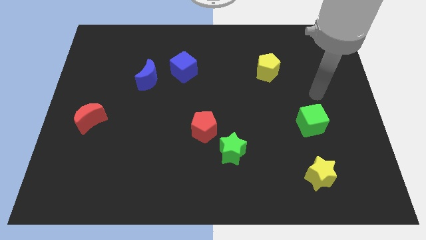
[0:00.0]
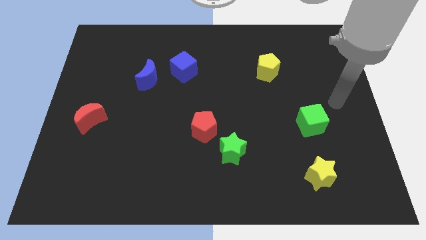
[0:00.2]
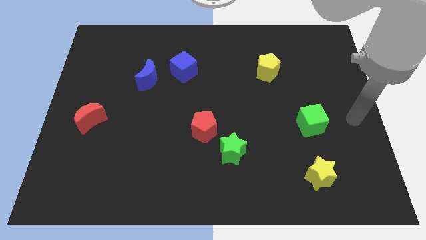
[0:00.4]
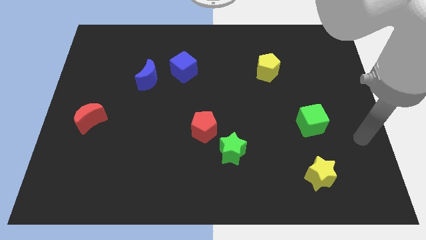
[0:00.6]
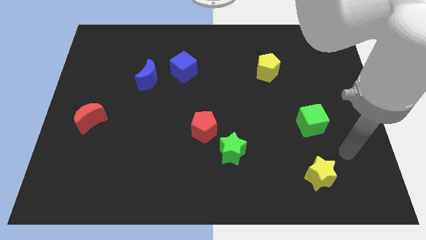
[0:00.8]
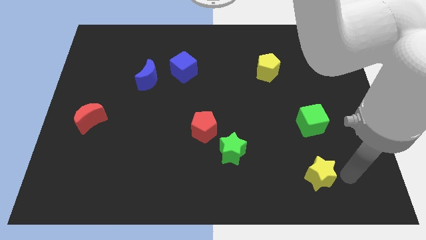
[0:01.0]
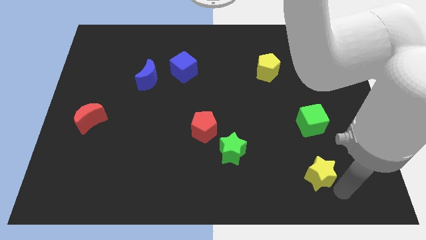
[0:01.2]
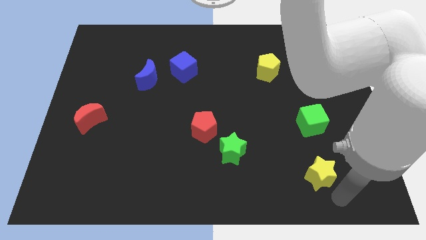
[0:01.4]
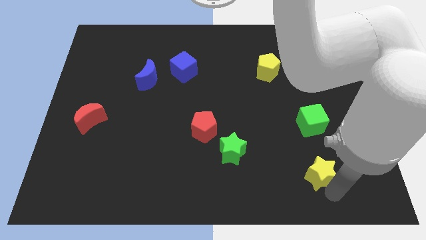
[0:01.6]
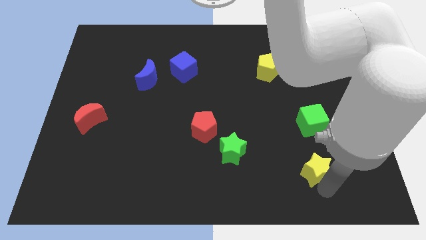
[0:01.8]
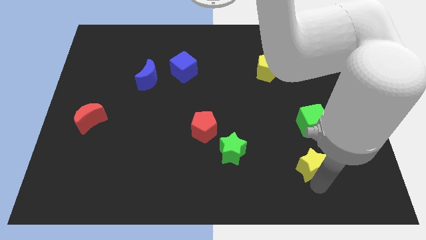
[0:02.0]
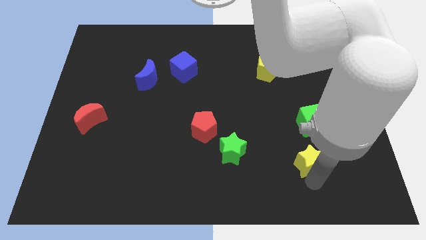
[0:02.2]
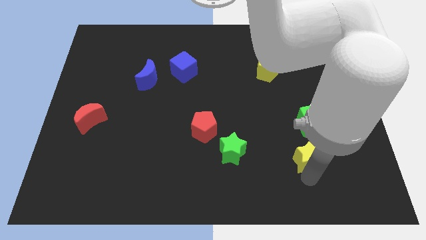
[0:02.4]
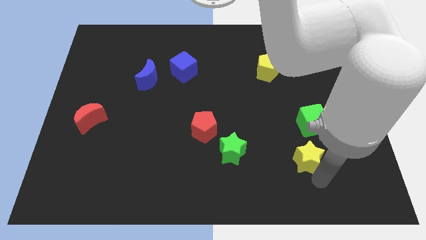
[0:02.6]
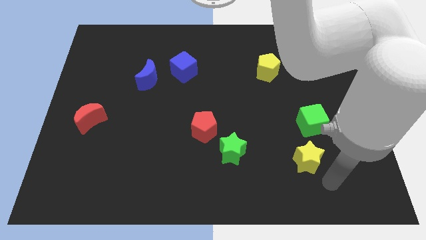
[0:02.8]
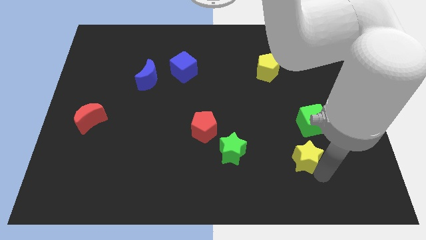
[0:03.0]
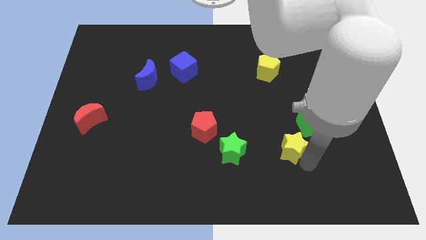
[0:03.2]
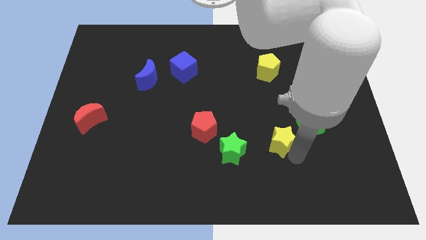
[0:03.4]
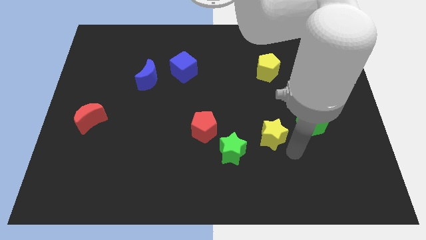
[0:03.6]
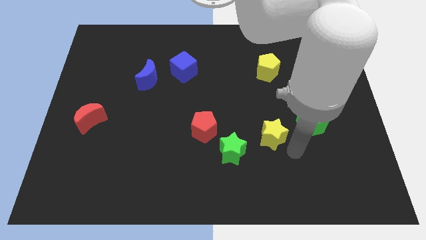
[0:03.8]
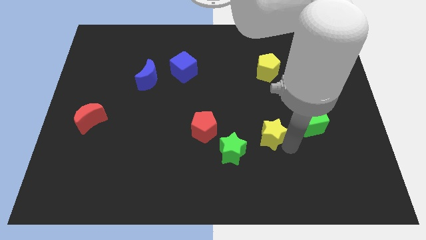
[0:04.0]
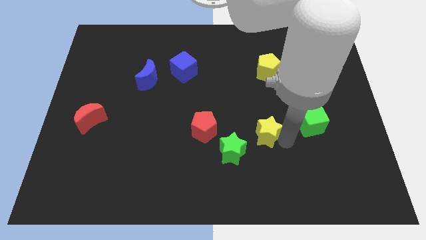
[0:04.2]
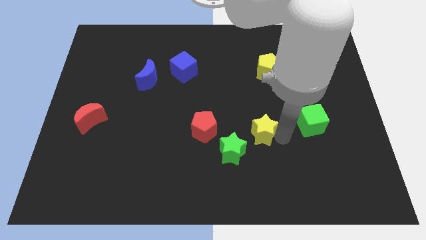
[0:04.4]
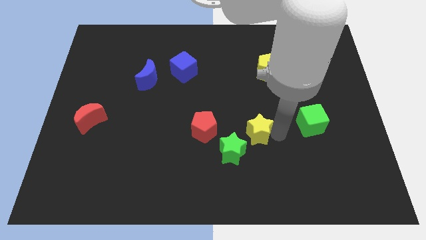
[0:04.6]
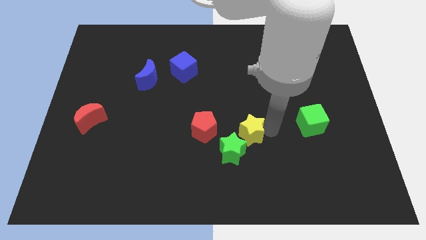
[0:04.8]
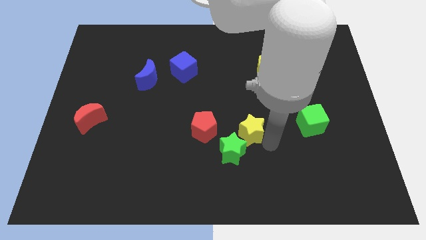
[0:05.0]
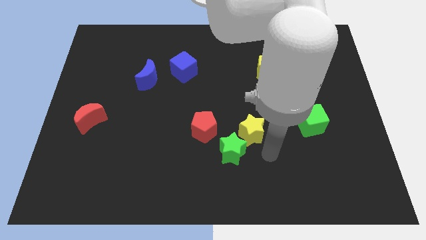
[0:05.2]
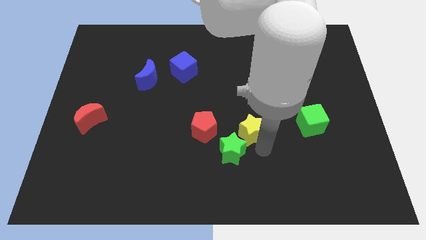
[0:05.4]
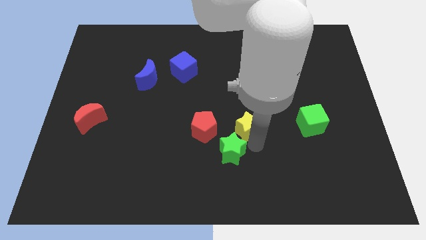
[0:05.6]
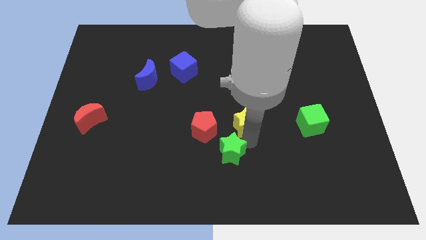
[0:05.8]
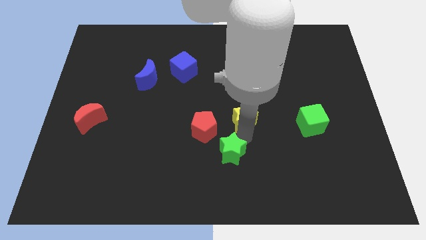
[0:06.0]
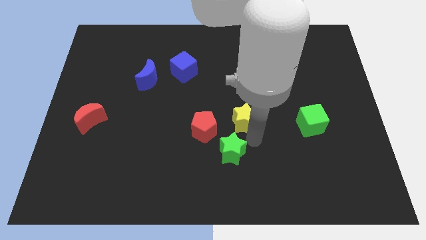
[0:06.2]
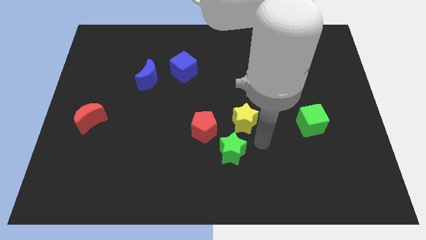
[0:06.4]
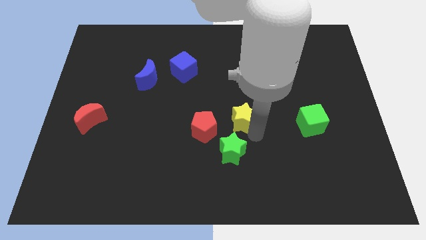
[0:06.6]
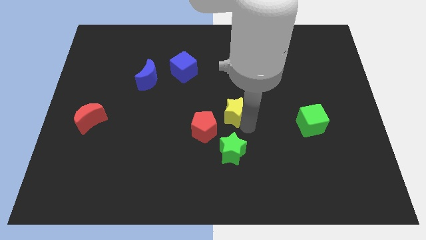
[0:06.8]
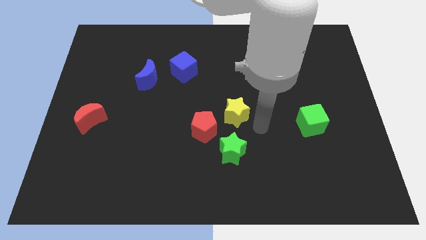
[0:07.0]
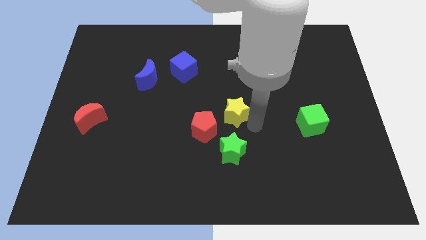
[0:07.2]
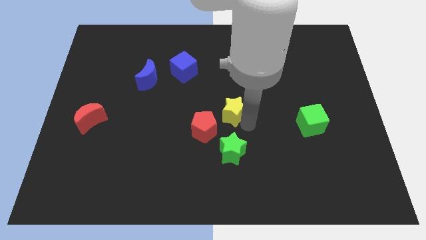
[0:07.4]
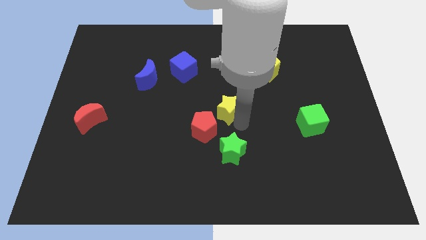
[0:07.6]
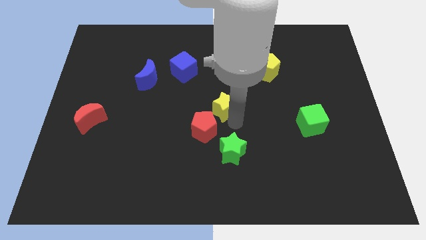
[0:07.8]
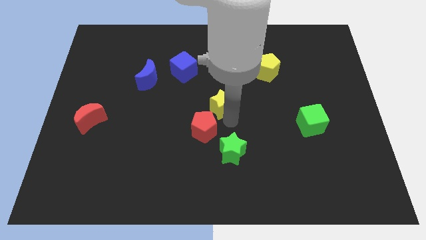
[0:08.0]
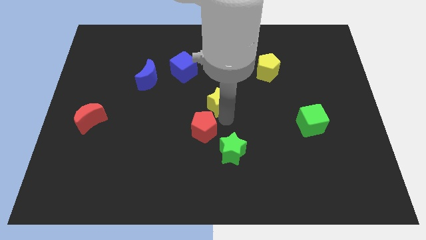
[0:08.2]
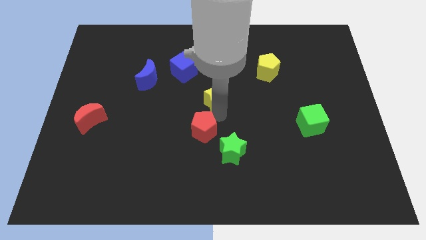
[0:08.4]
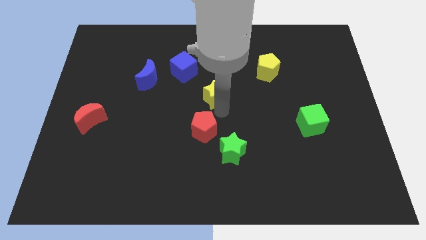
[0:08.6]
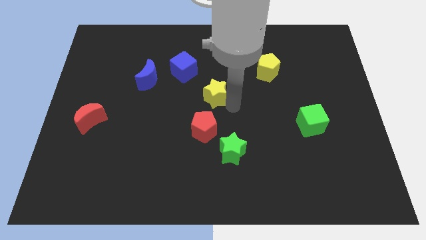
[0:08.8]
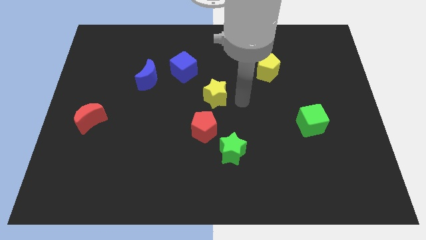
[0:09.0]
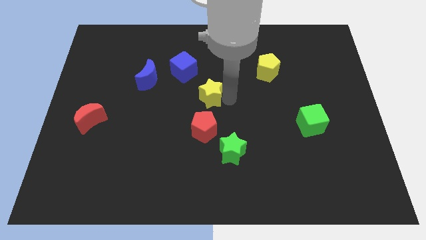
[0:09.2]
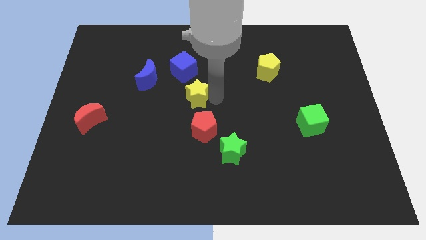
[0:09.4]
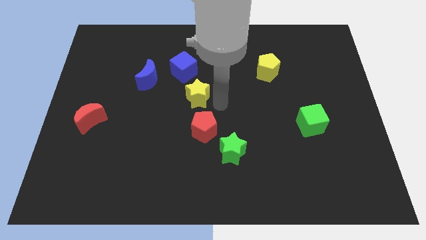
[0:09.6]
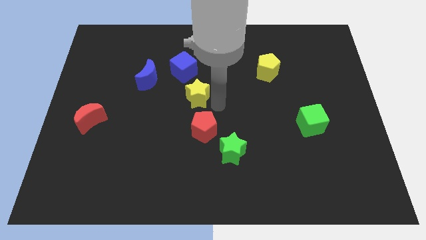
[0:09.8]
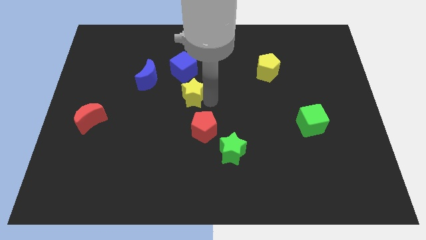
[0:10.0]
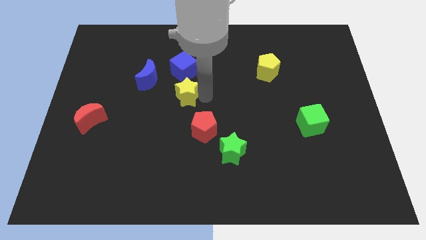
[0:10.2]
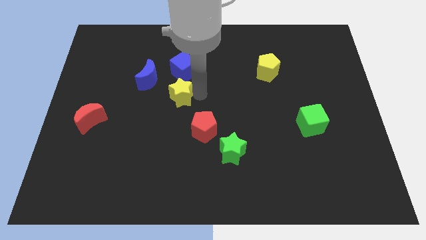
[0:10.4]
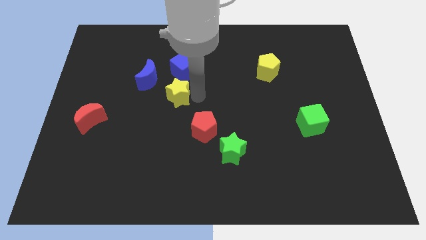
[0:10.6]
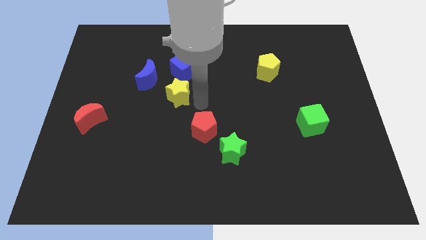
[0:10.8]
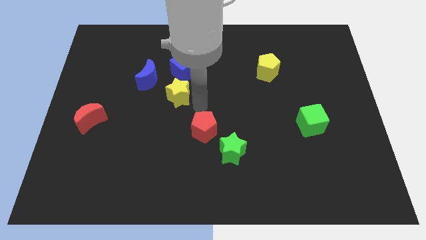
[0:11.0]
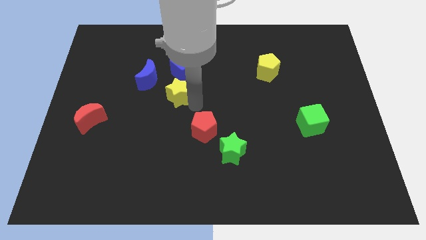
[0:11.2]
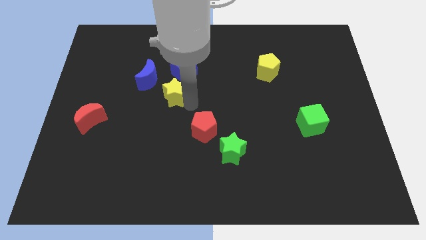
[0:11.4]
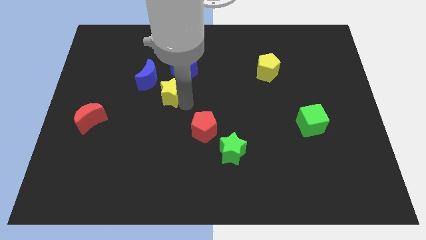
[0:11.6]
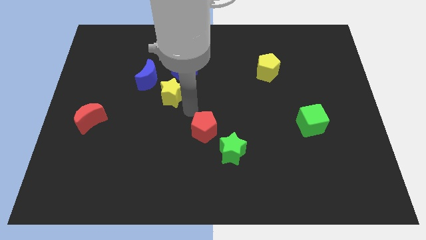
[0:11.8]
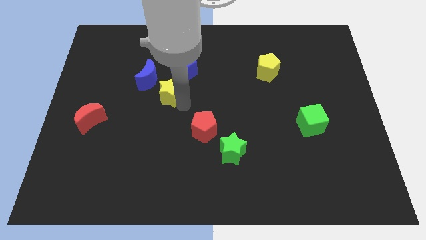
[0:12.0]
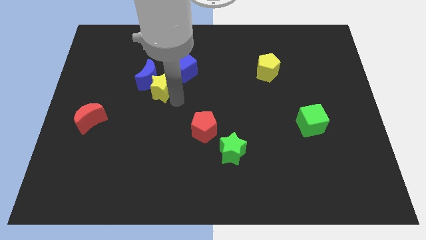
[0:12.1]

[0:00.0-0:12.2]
put the yellow star close to the blue moon

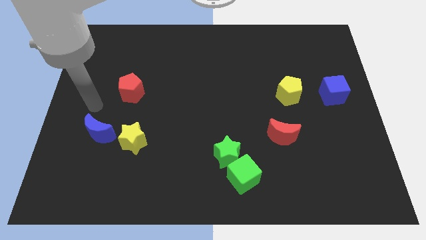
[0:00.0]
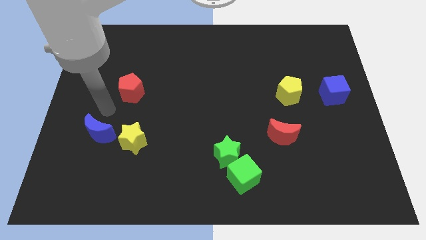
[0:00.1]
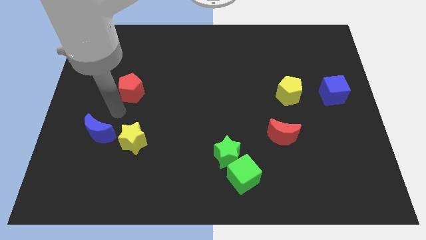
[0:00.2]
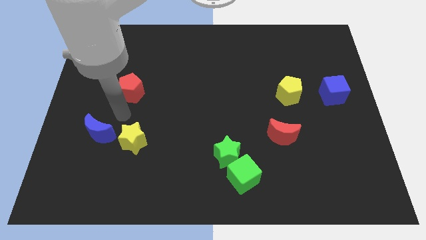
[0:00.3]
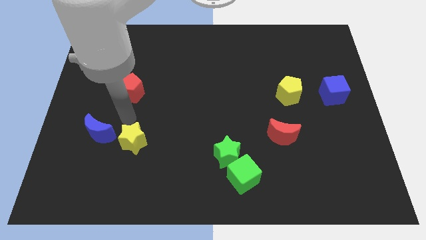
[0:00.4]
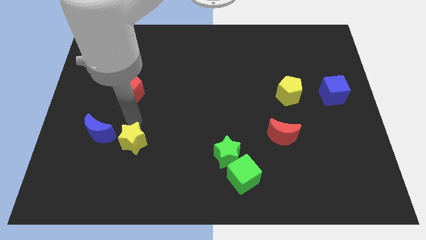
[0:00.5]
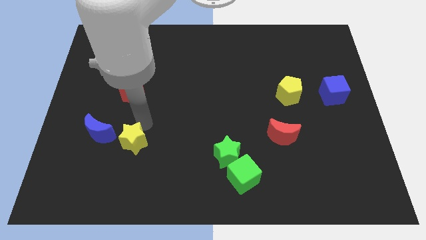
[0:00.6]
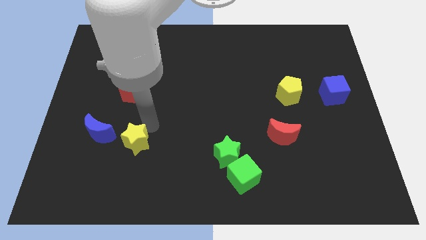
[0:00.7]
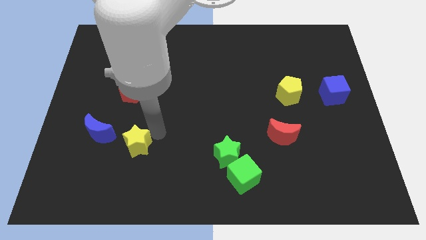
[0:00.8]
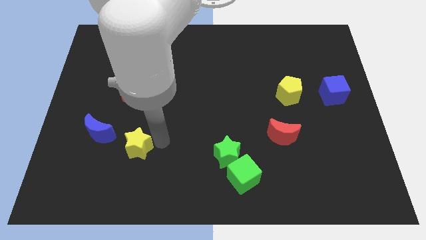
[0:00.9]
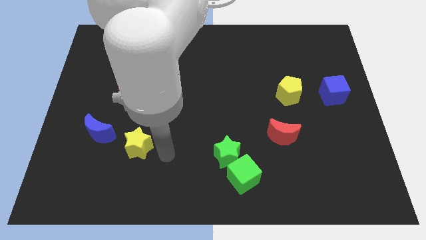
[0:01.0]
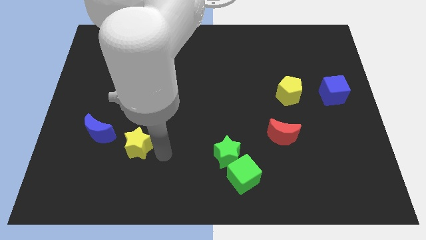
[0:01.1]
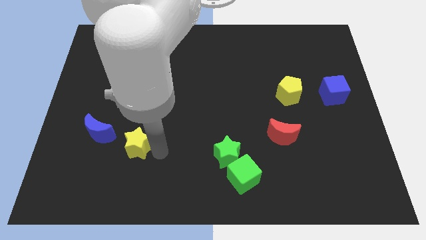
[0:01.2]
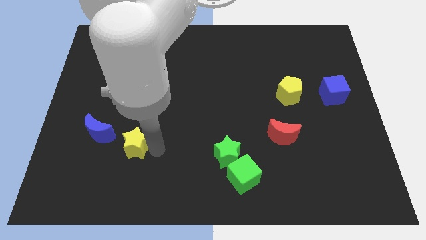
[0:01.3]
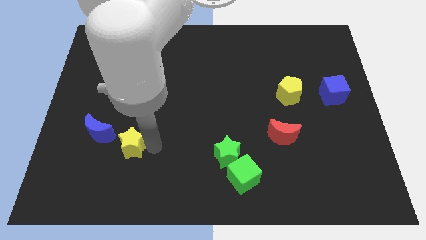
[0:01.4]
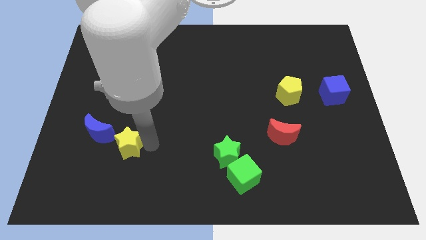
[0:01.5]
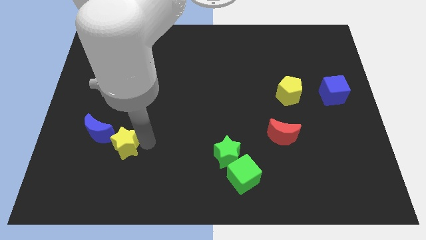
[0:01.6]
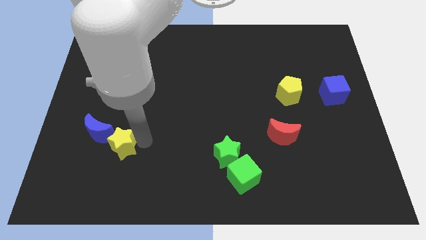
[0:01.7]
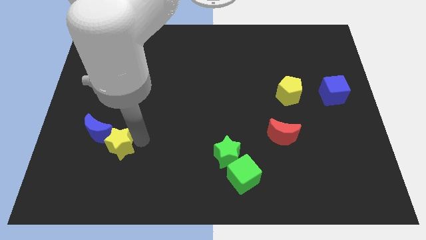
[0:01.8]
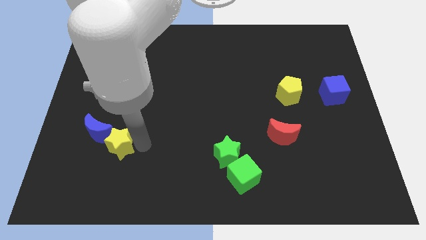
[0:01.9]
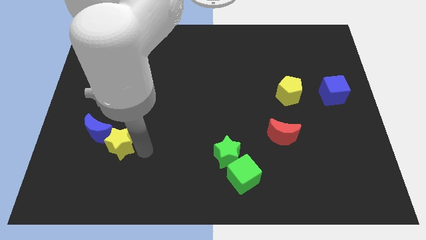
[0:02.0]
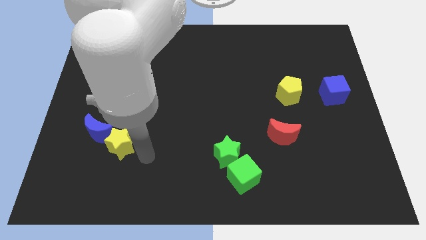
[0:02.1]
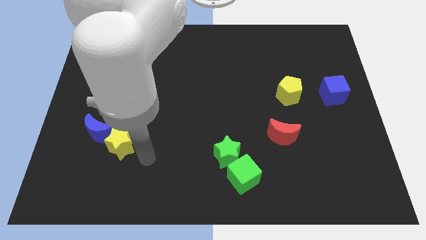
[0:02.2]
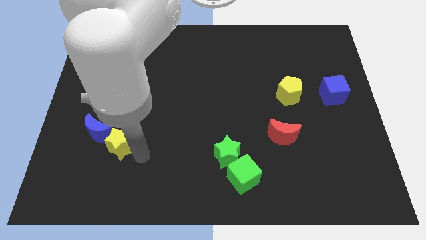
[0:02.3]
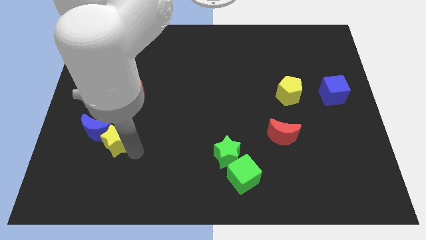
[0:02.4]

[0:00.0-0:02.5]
push the yellow star to the blue moon
